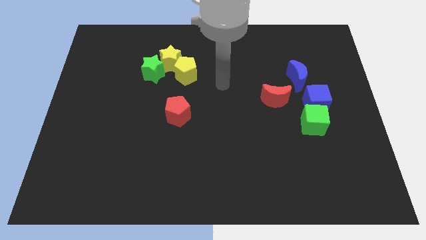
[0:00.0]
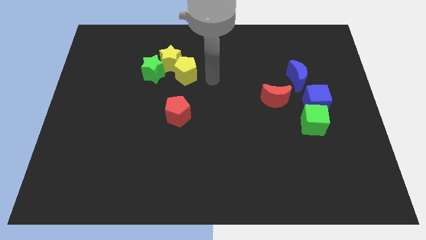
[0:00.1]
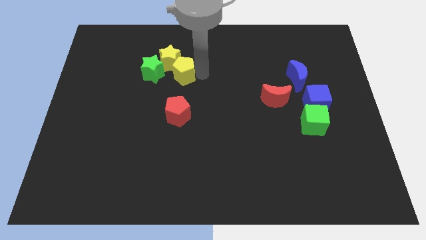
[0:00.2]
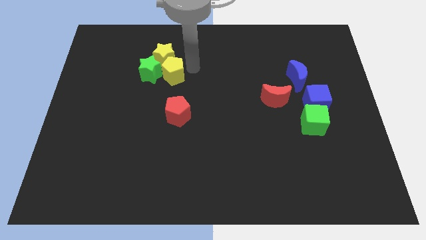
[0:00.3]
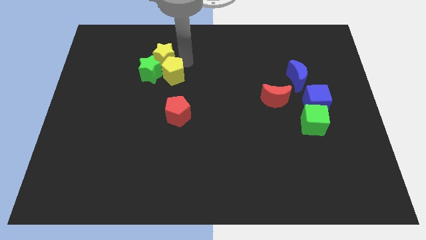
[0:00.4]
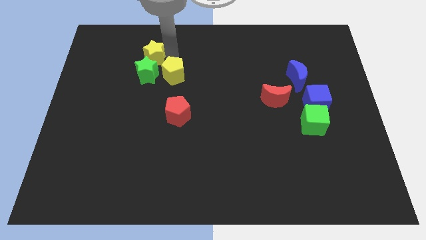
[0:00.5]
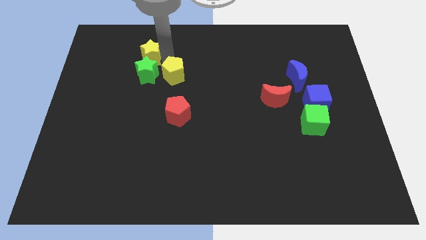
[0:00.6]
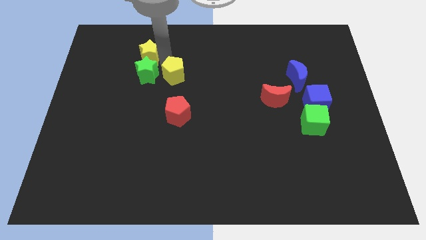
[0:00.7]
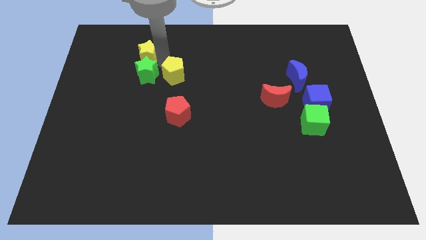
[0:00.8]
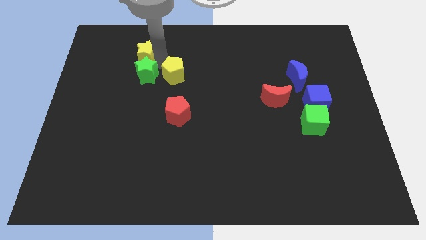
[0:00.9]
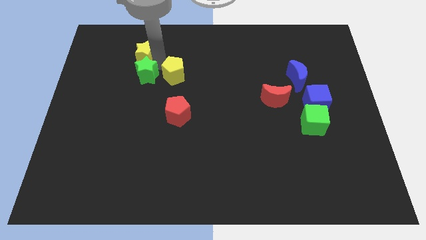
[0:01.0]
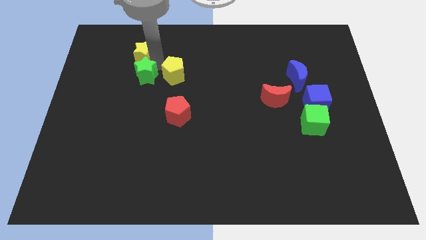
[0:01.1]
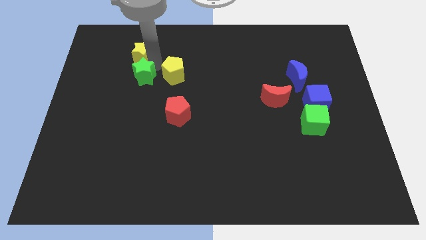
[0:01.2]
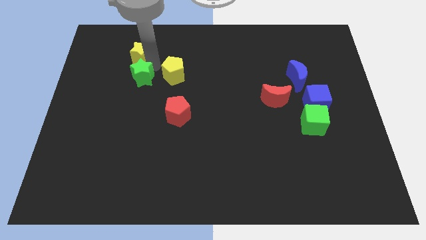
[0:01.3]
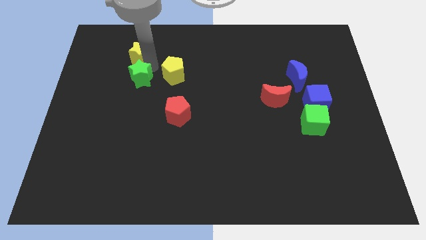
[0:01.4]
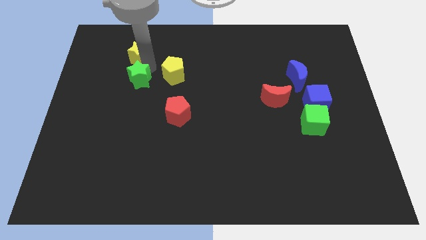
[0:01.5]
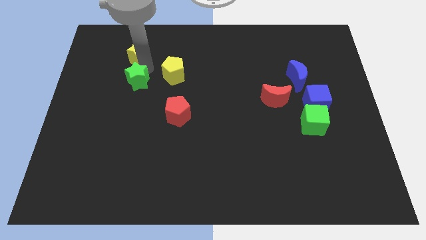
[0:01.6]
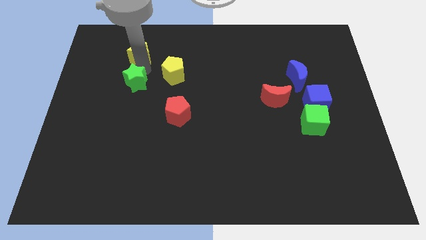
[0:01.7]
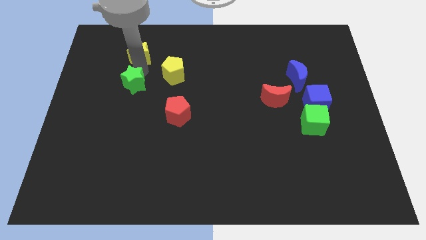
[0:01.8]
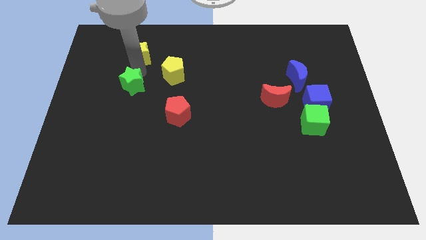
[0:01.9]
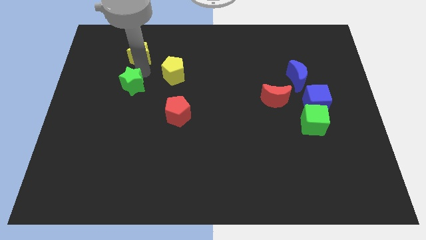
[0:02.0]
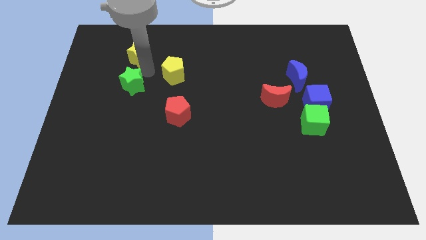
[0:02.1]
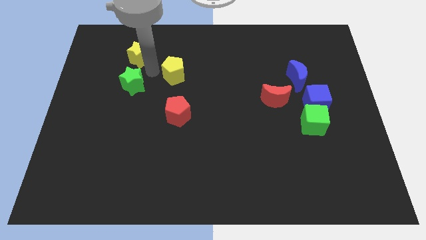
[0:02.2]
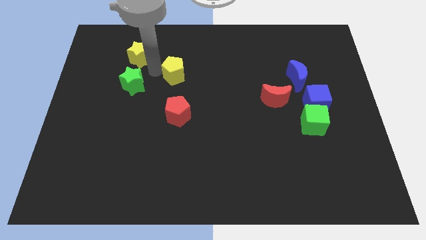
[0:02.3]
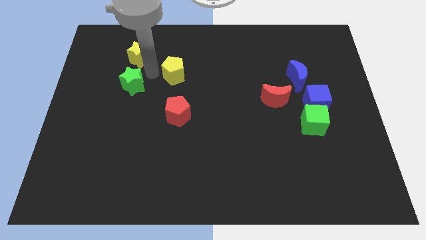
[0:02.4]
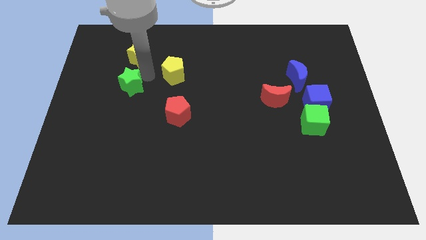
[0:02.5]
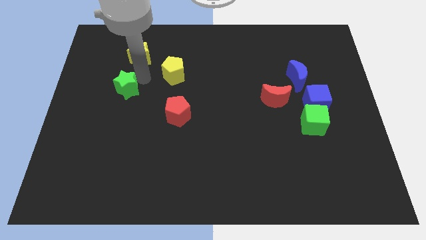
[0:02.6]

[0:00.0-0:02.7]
slide the green star diagonally downwards and to the left a bit

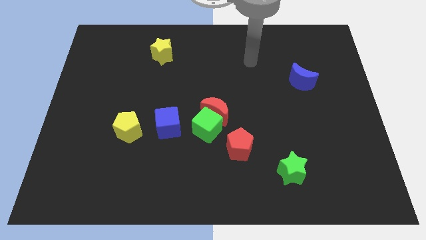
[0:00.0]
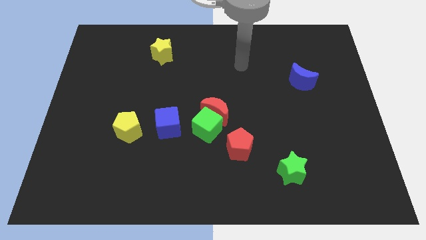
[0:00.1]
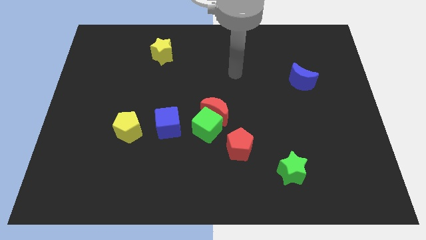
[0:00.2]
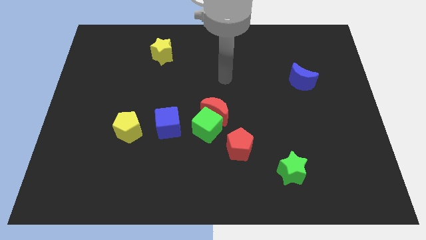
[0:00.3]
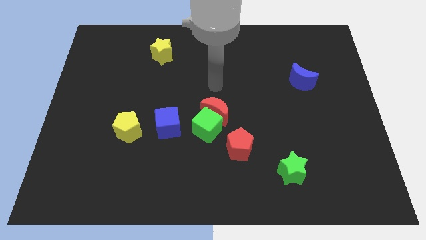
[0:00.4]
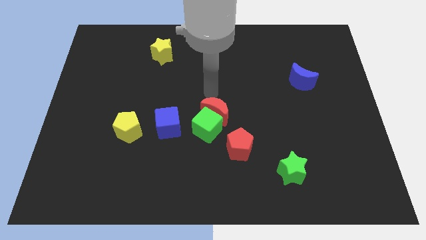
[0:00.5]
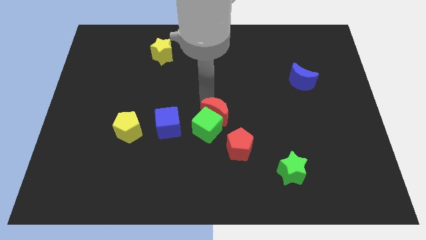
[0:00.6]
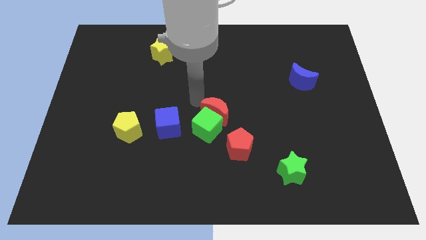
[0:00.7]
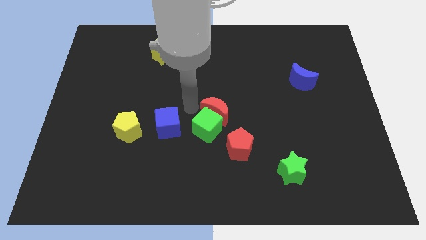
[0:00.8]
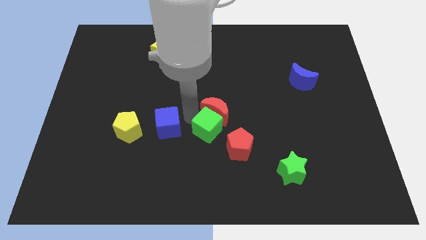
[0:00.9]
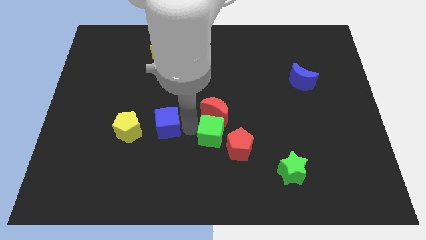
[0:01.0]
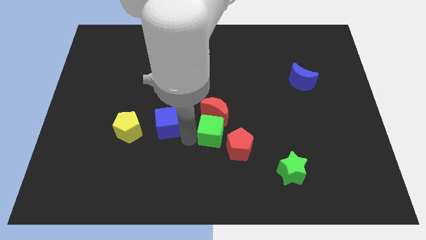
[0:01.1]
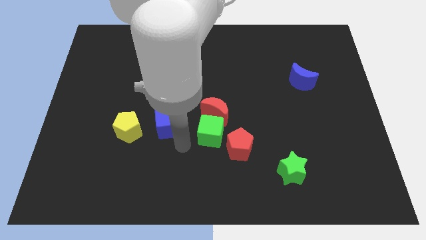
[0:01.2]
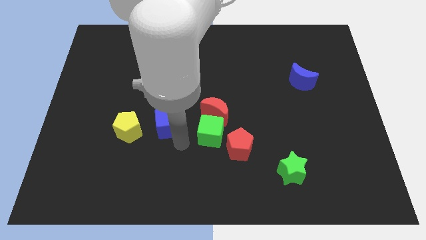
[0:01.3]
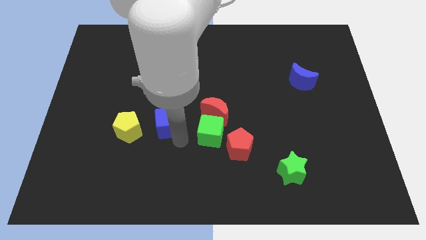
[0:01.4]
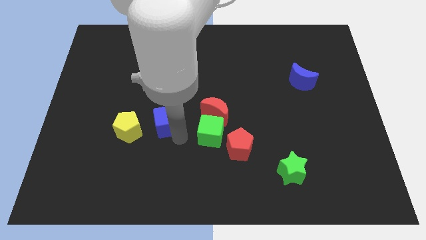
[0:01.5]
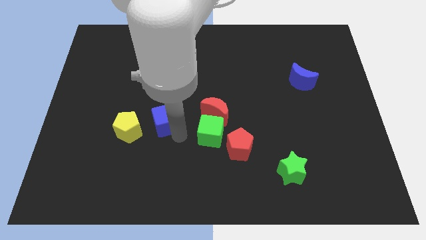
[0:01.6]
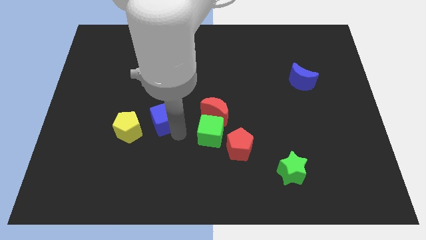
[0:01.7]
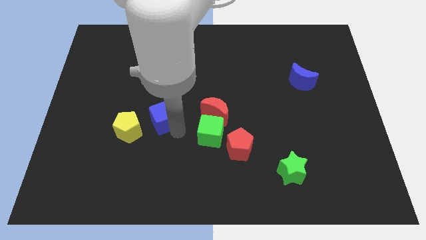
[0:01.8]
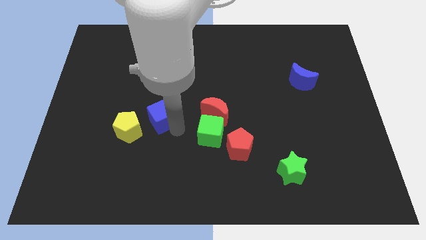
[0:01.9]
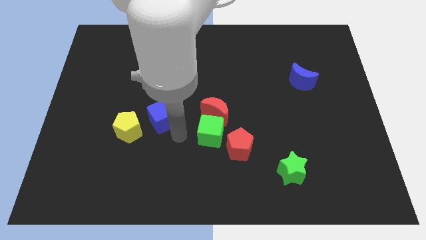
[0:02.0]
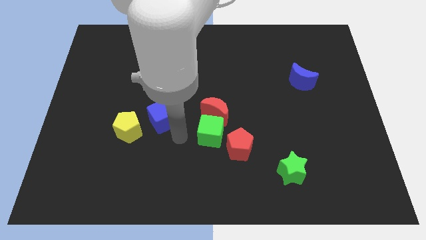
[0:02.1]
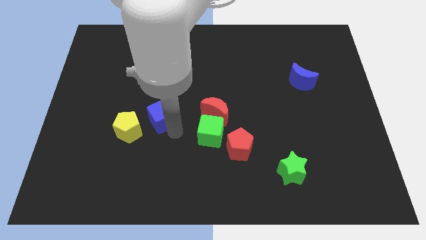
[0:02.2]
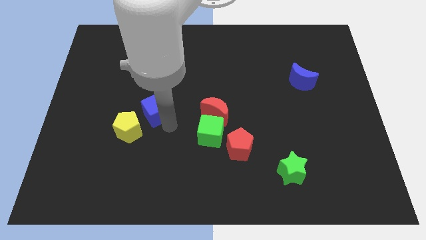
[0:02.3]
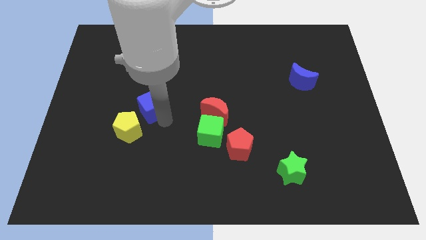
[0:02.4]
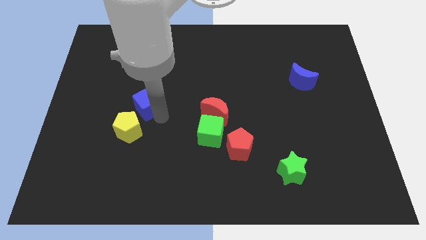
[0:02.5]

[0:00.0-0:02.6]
slide the blue cube a little bit upwards and left diagonally

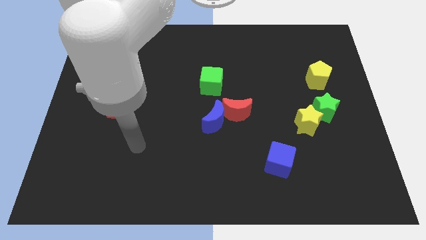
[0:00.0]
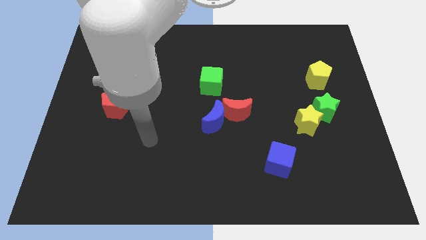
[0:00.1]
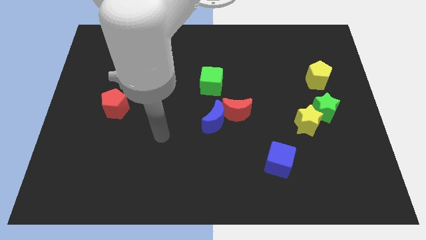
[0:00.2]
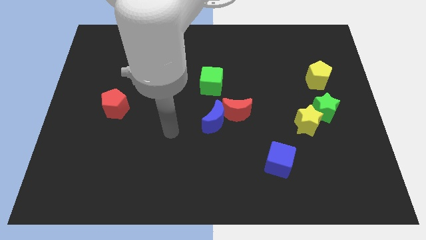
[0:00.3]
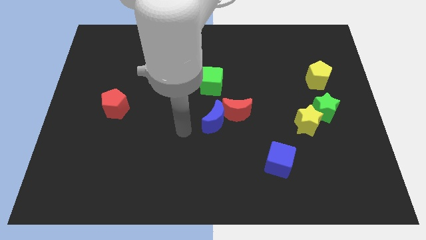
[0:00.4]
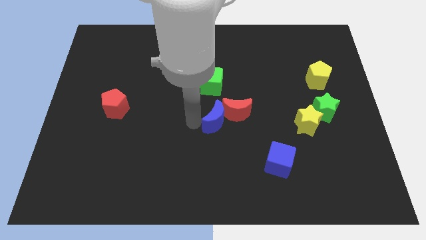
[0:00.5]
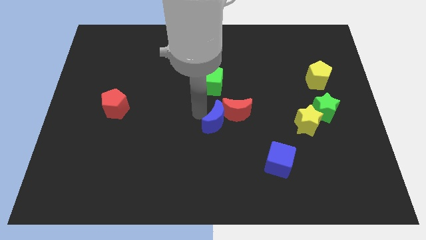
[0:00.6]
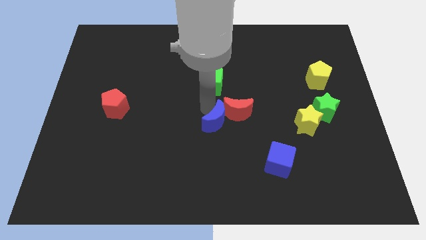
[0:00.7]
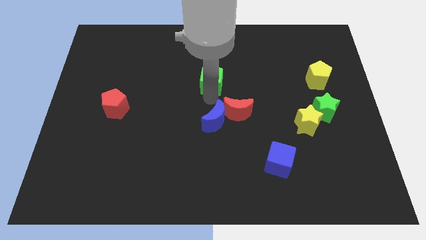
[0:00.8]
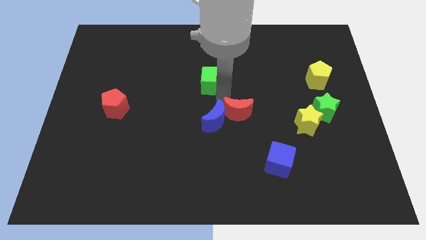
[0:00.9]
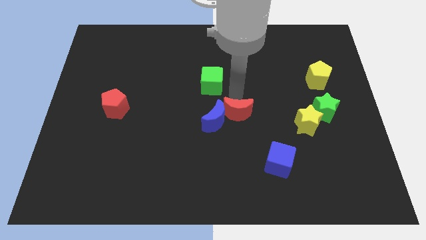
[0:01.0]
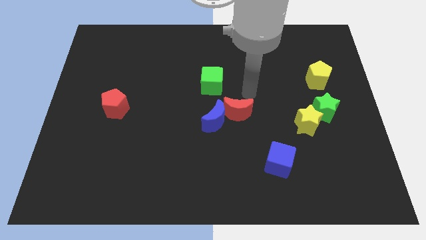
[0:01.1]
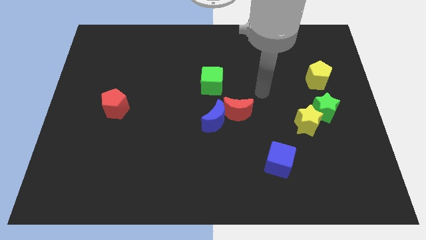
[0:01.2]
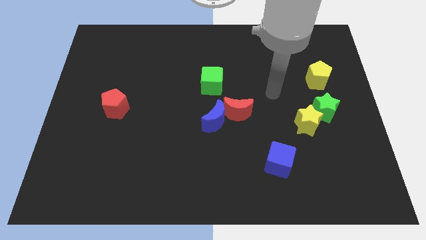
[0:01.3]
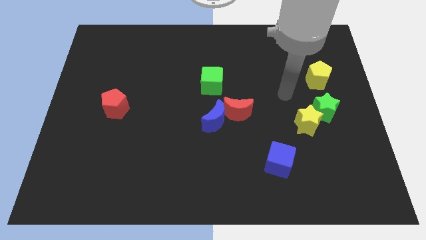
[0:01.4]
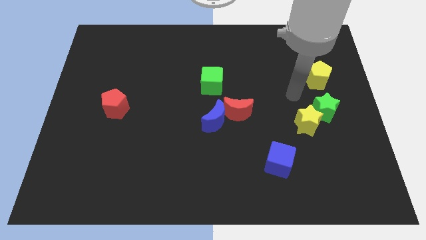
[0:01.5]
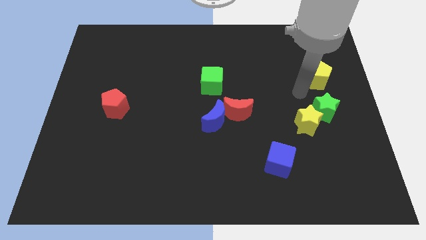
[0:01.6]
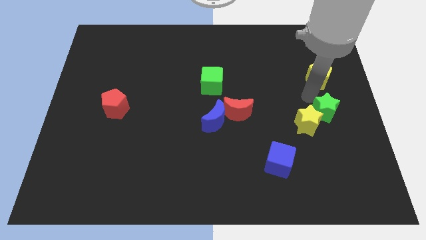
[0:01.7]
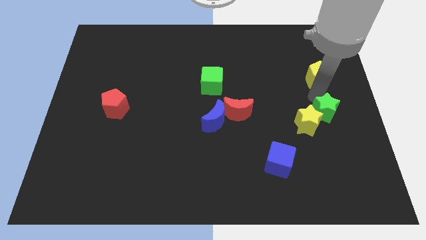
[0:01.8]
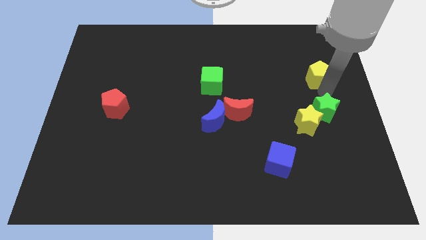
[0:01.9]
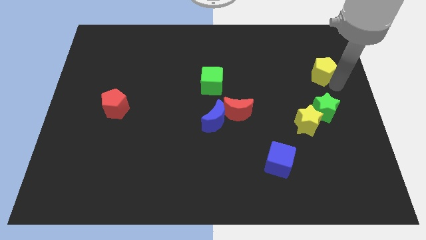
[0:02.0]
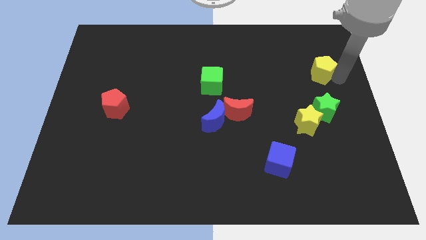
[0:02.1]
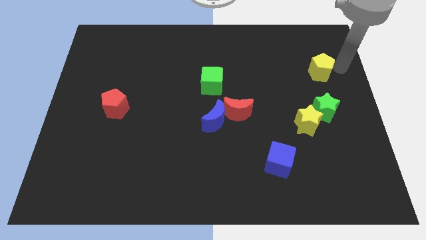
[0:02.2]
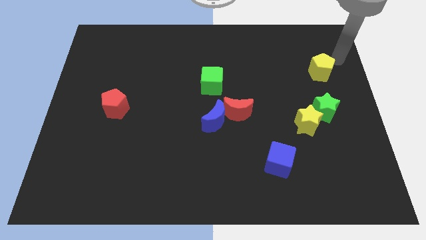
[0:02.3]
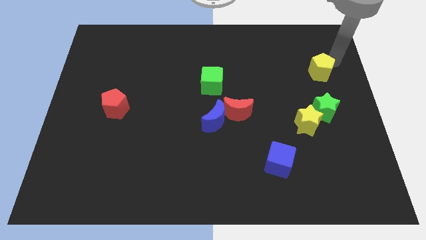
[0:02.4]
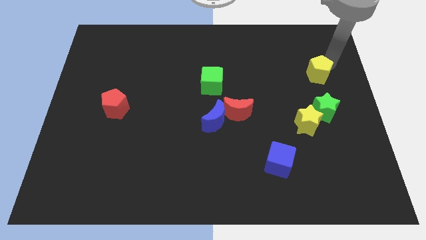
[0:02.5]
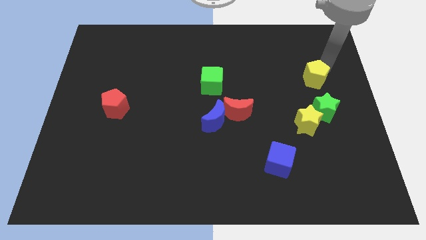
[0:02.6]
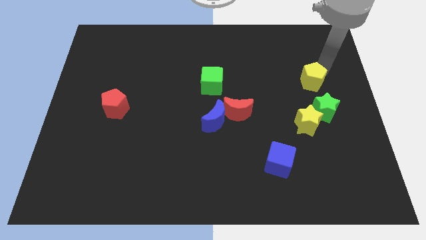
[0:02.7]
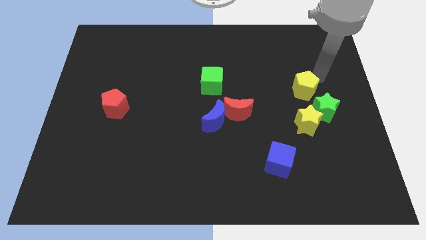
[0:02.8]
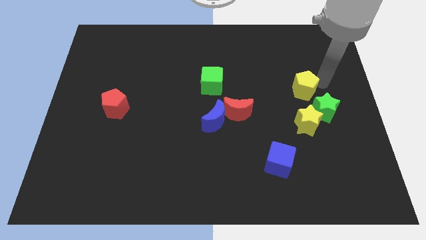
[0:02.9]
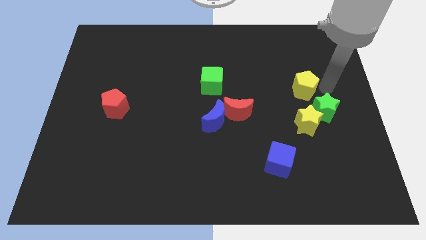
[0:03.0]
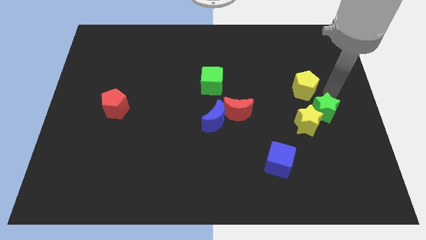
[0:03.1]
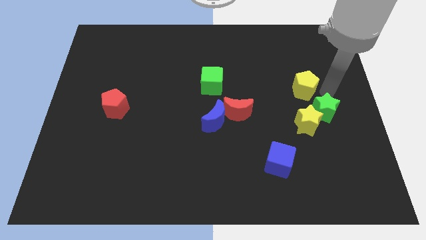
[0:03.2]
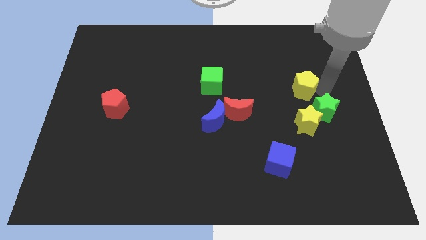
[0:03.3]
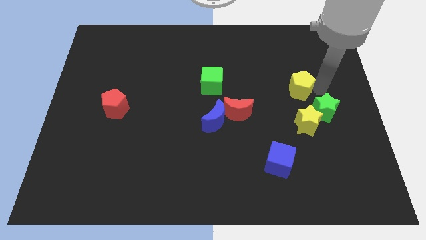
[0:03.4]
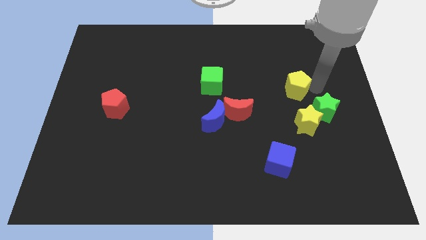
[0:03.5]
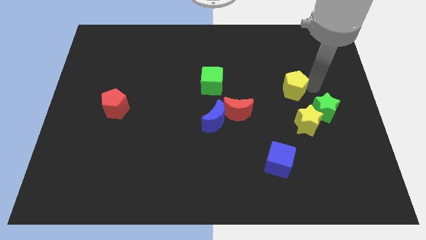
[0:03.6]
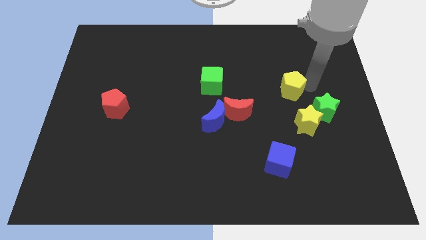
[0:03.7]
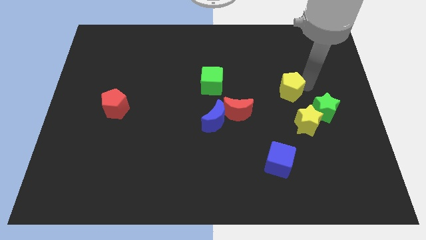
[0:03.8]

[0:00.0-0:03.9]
push the yellow pentagon to the left slightly
